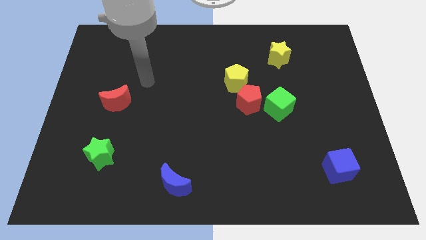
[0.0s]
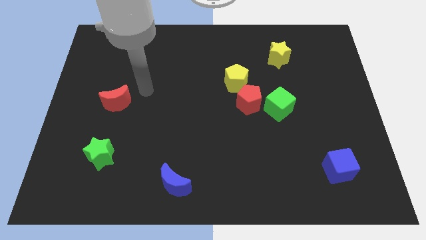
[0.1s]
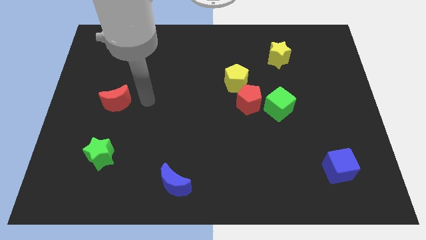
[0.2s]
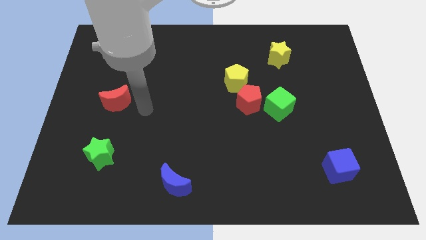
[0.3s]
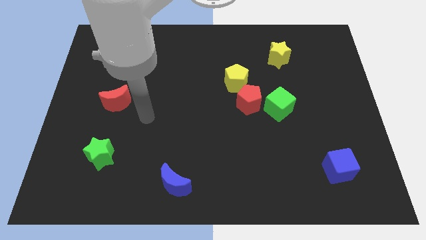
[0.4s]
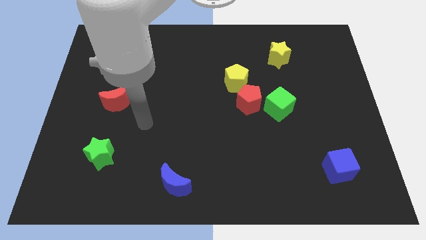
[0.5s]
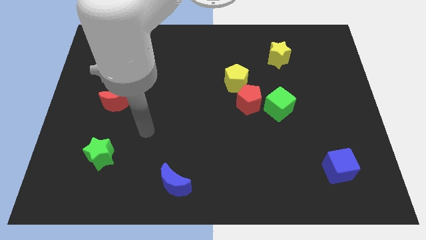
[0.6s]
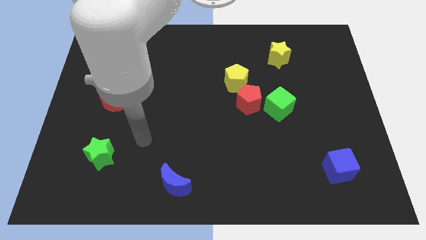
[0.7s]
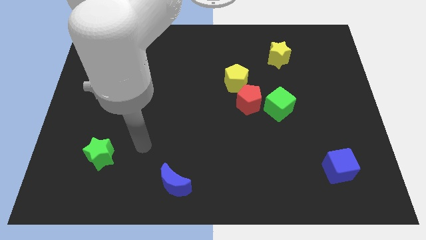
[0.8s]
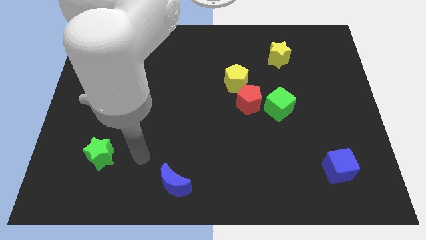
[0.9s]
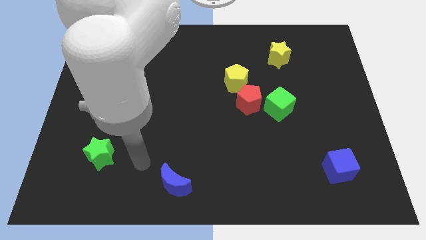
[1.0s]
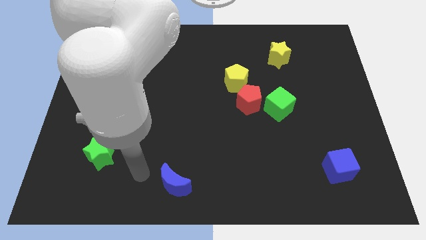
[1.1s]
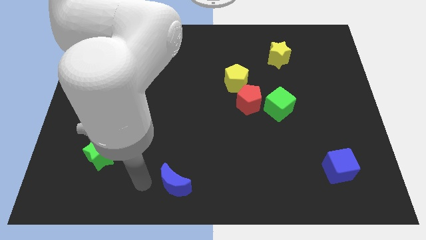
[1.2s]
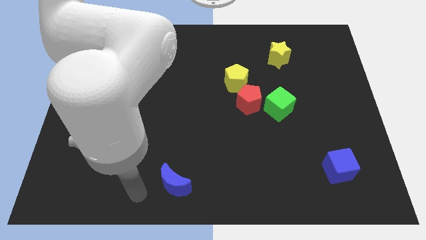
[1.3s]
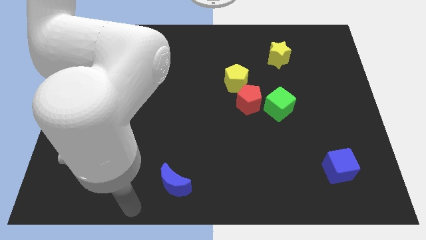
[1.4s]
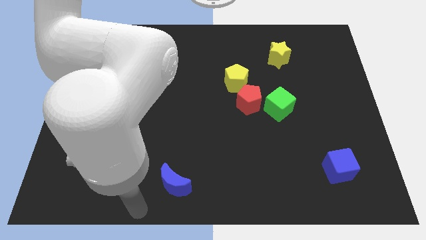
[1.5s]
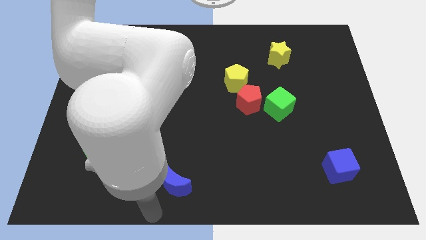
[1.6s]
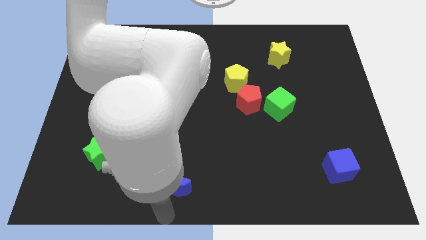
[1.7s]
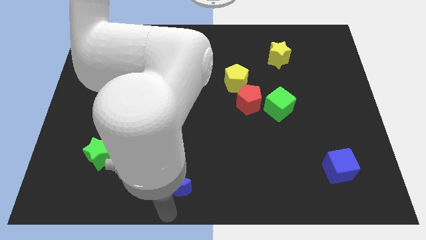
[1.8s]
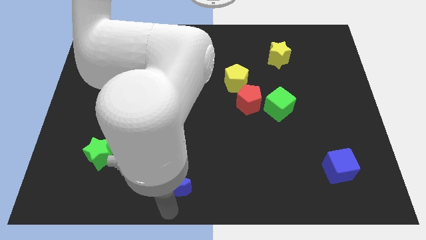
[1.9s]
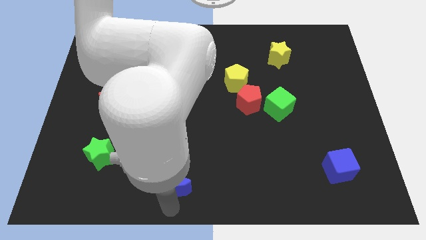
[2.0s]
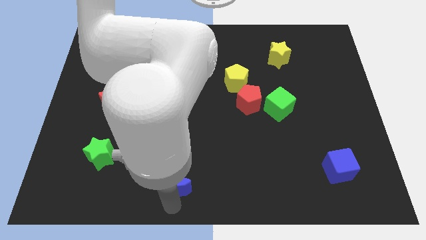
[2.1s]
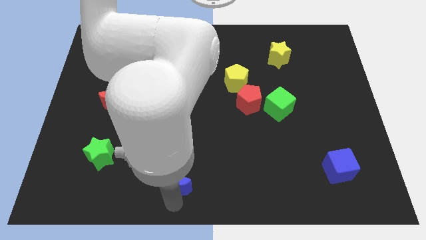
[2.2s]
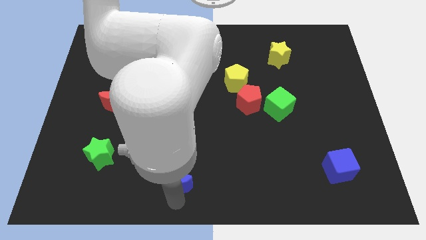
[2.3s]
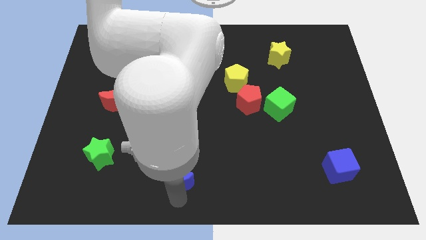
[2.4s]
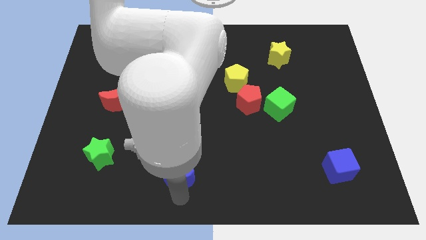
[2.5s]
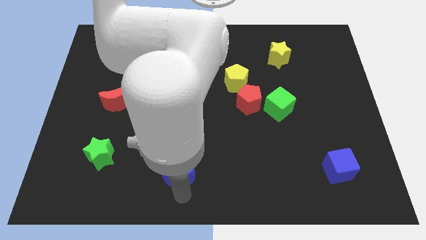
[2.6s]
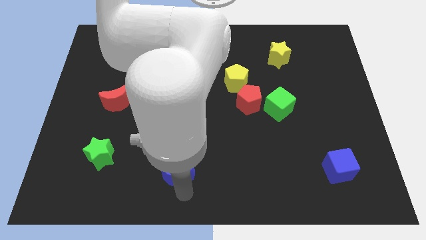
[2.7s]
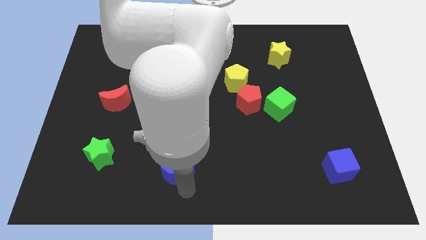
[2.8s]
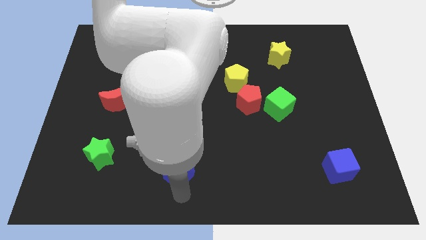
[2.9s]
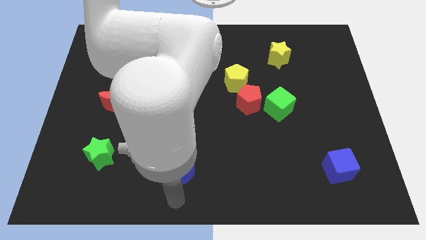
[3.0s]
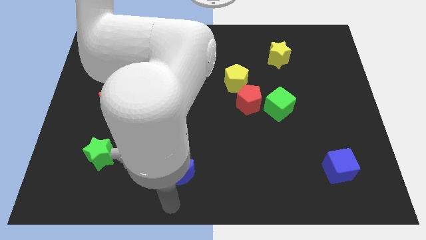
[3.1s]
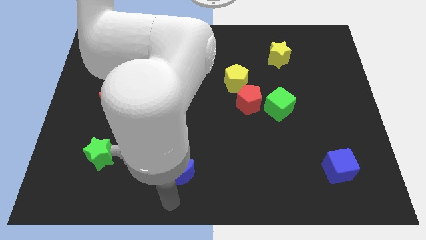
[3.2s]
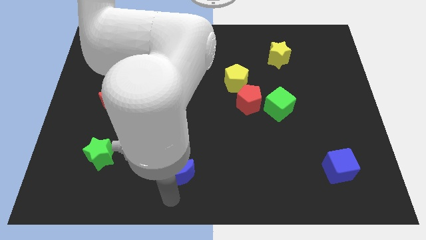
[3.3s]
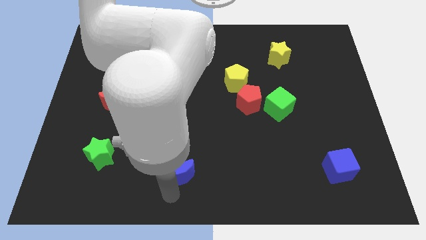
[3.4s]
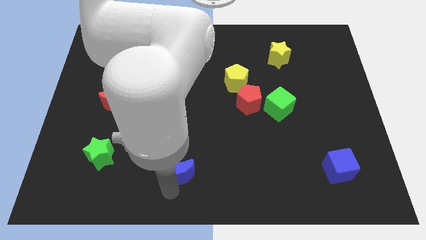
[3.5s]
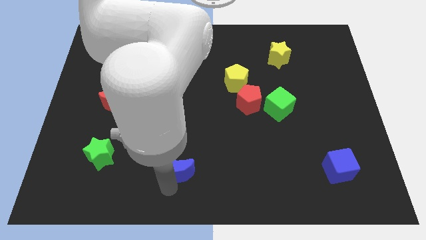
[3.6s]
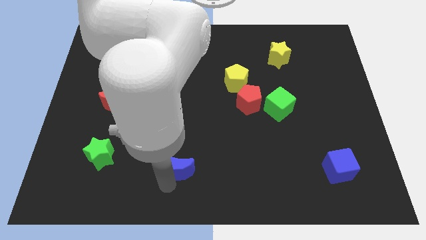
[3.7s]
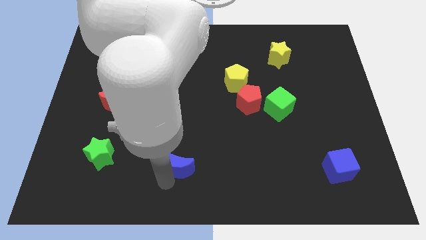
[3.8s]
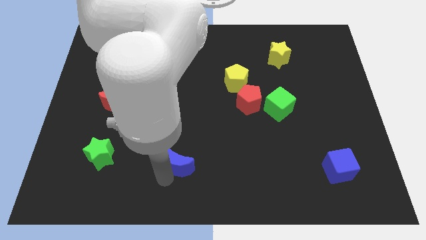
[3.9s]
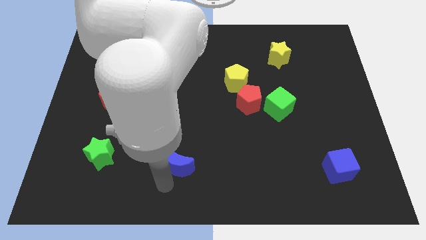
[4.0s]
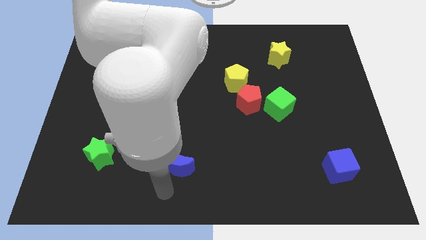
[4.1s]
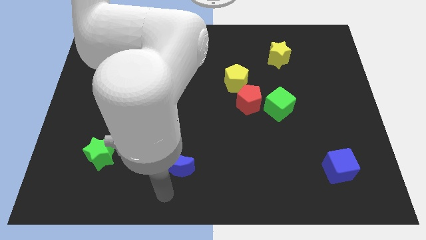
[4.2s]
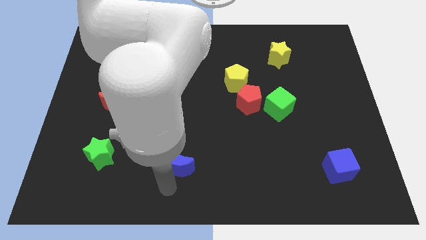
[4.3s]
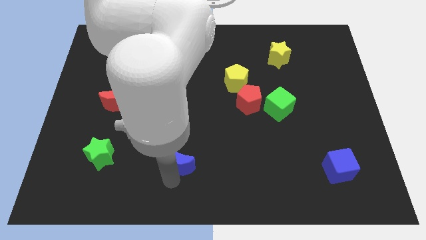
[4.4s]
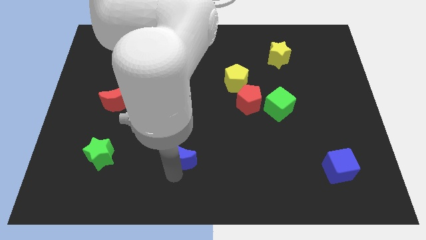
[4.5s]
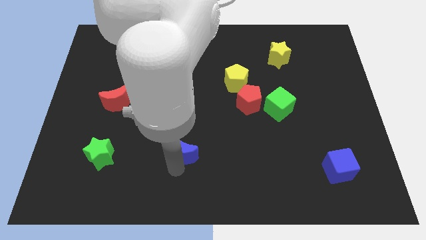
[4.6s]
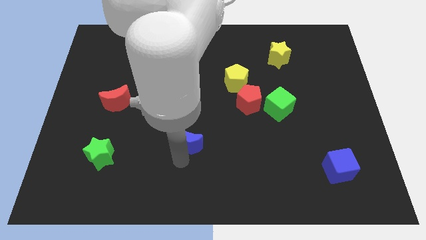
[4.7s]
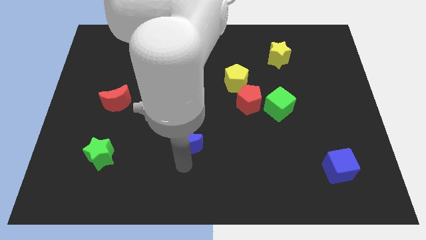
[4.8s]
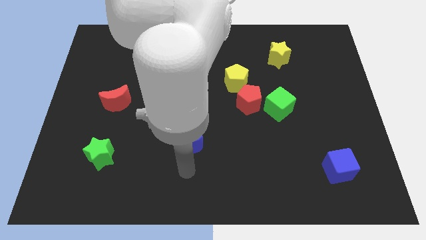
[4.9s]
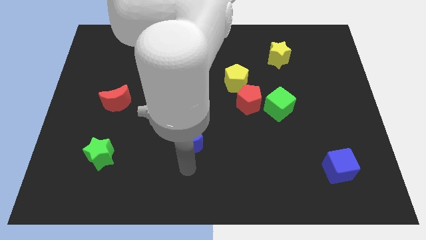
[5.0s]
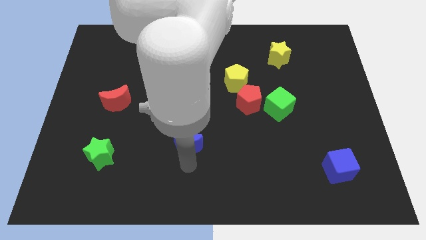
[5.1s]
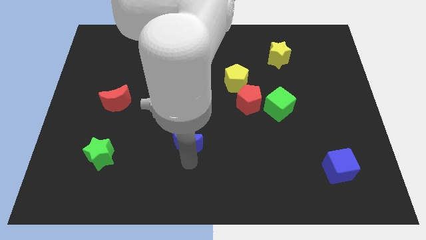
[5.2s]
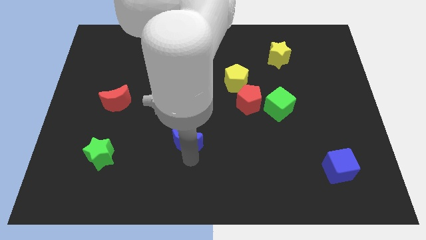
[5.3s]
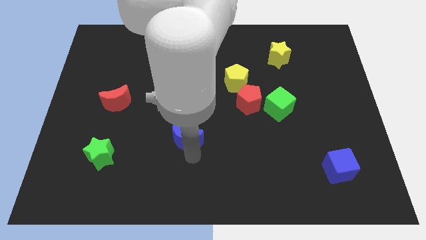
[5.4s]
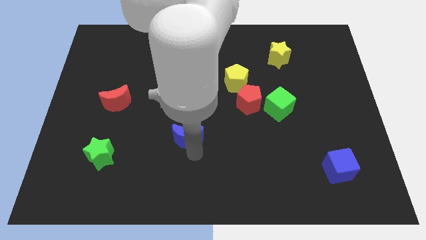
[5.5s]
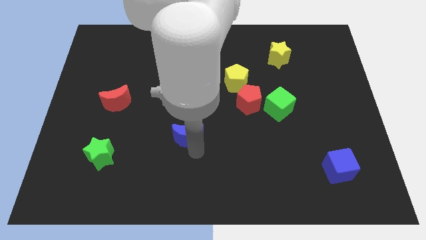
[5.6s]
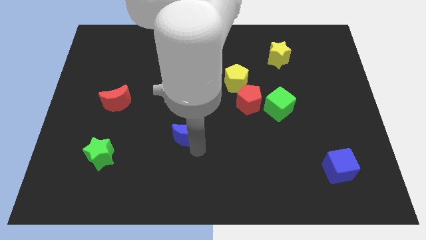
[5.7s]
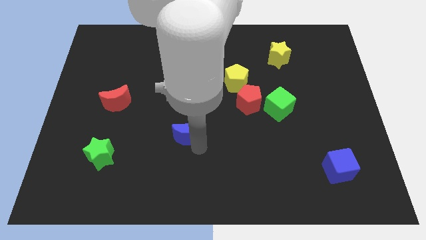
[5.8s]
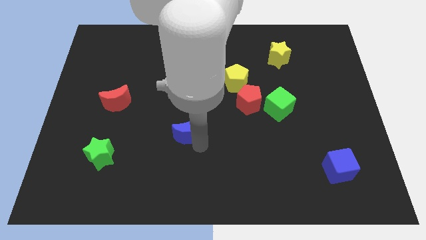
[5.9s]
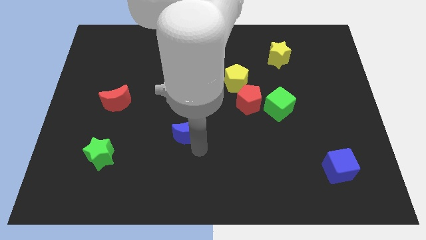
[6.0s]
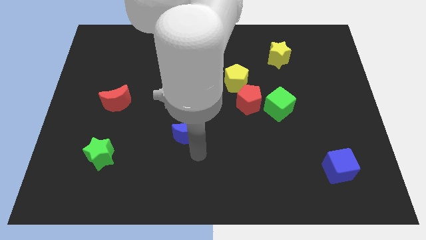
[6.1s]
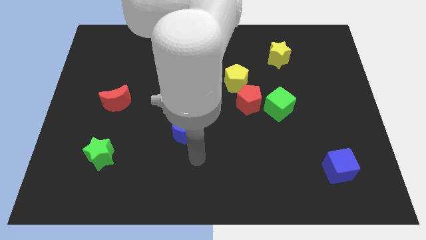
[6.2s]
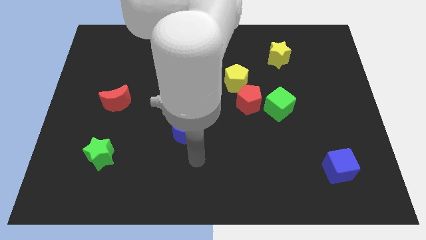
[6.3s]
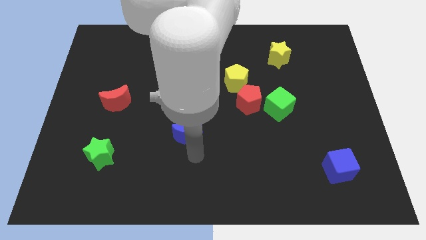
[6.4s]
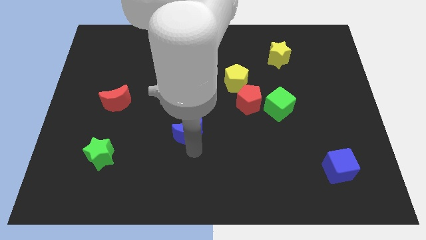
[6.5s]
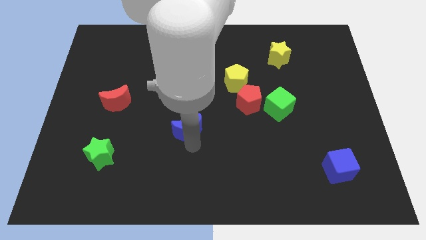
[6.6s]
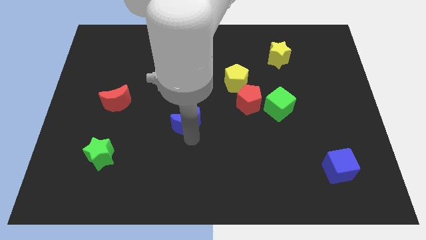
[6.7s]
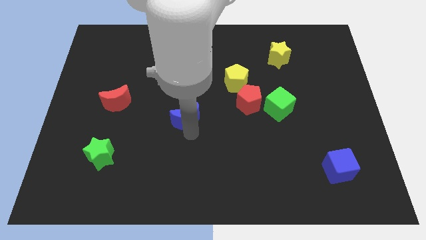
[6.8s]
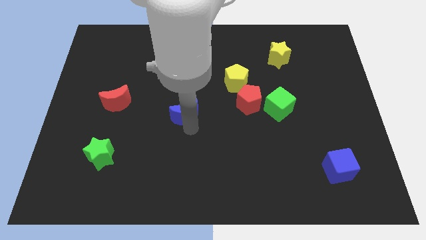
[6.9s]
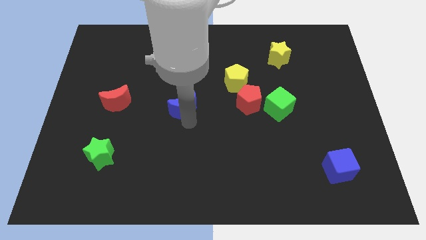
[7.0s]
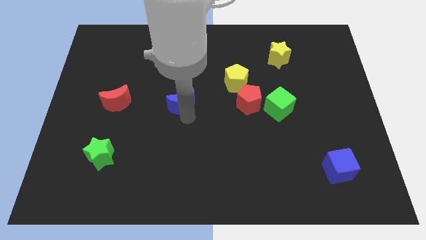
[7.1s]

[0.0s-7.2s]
move the blue moon upwards

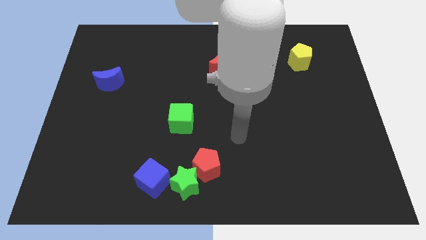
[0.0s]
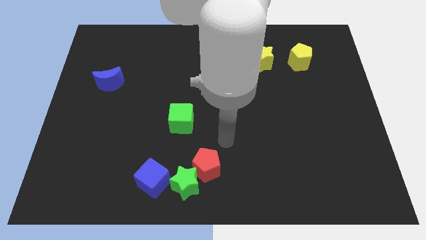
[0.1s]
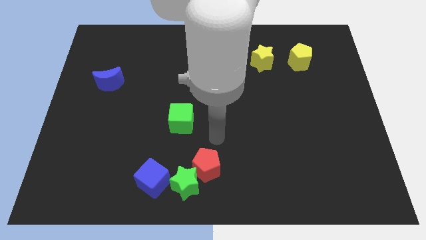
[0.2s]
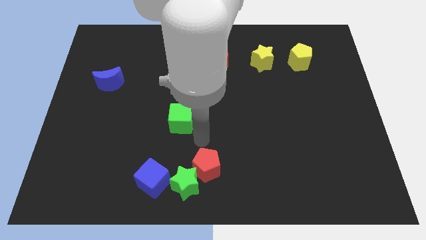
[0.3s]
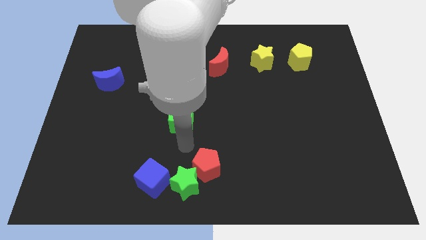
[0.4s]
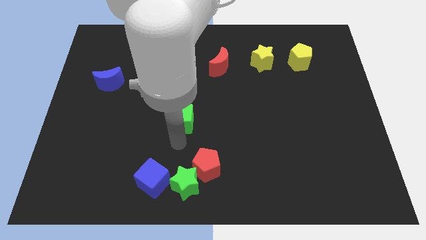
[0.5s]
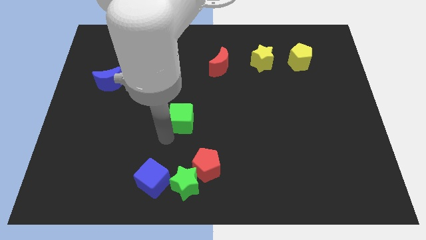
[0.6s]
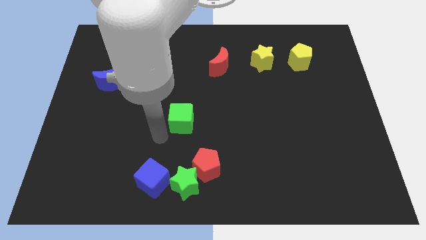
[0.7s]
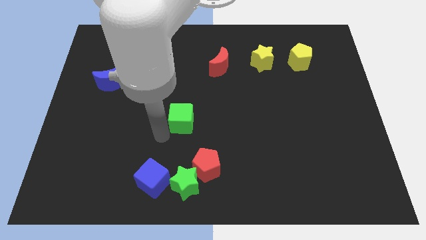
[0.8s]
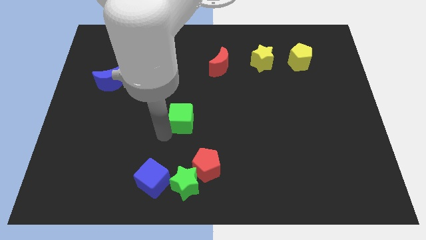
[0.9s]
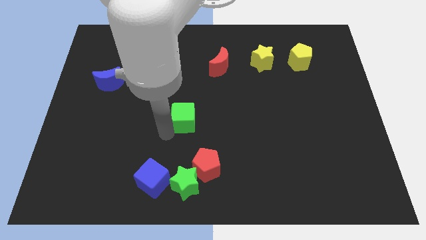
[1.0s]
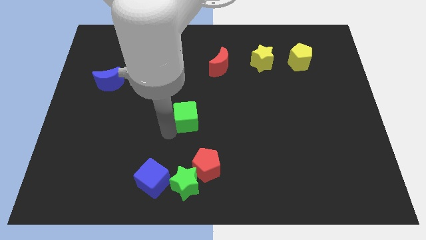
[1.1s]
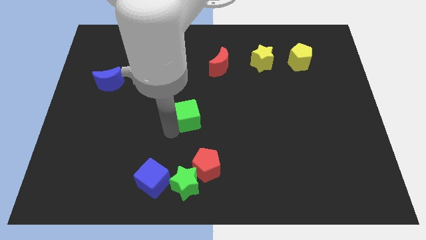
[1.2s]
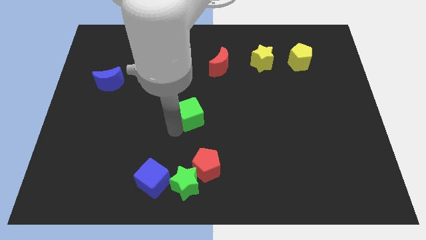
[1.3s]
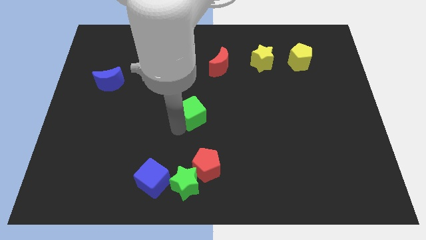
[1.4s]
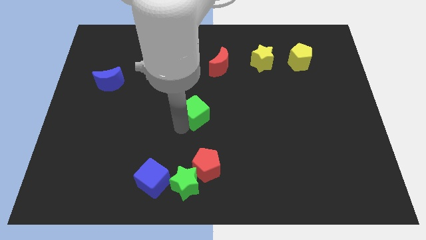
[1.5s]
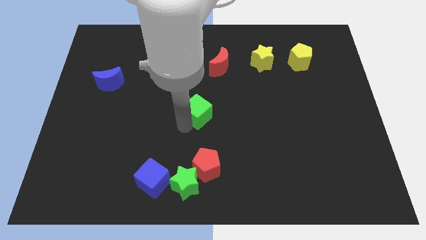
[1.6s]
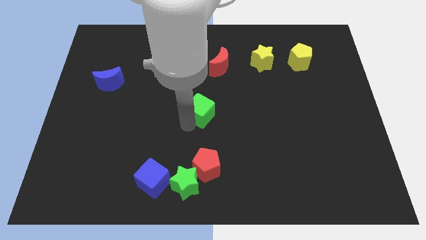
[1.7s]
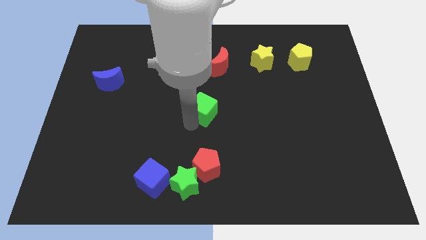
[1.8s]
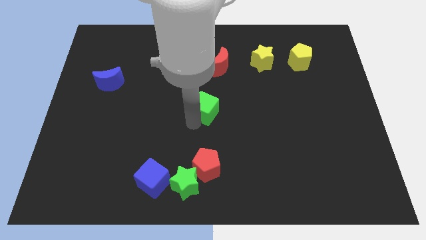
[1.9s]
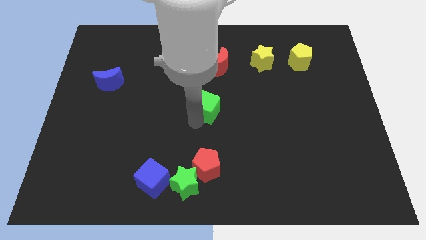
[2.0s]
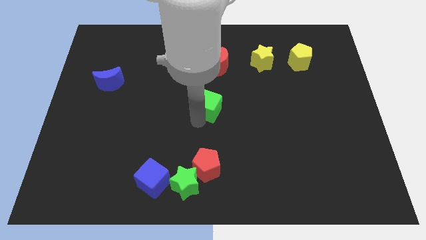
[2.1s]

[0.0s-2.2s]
move the green cube up and to the right diagonally somewhat
